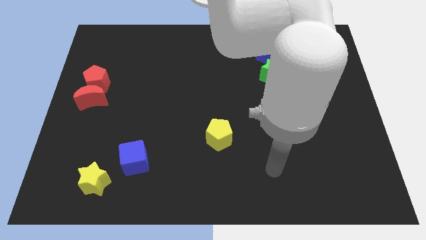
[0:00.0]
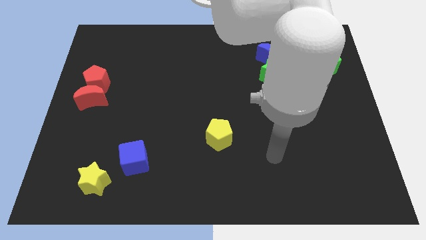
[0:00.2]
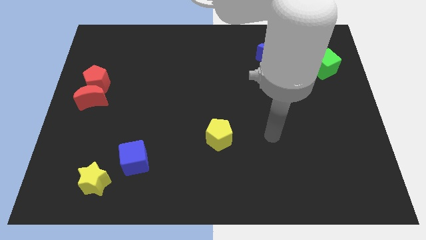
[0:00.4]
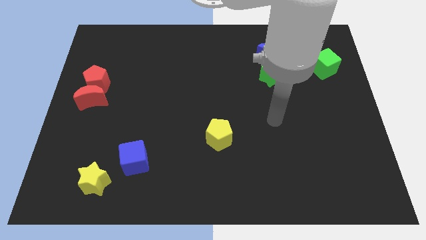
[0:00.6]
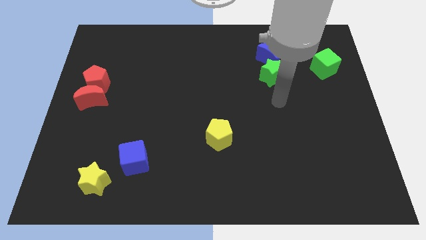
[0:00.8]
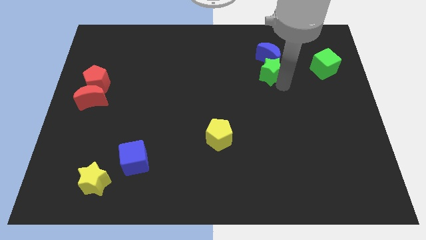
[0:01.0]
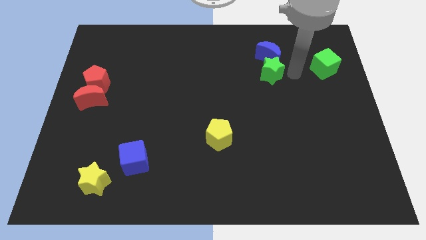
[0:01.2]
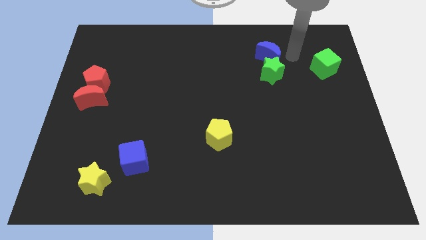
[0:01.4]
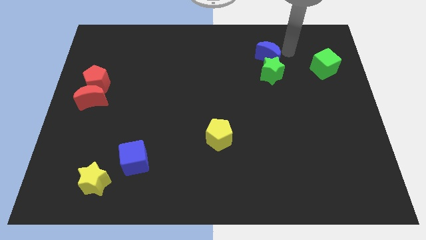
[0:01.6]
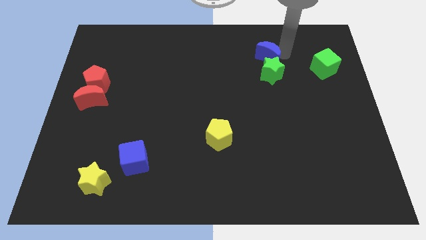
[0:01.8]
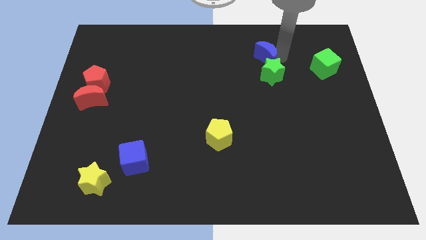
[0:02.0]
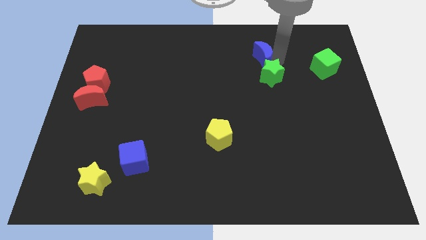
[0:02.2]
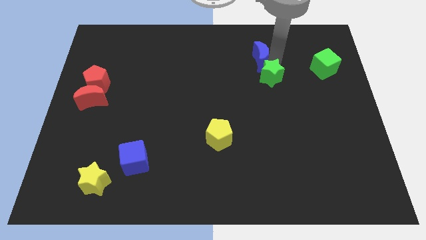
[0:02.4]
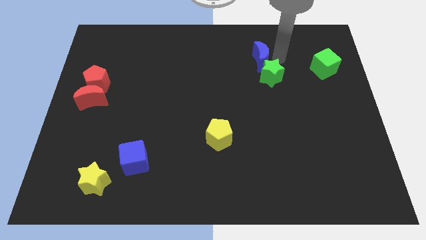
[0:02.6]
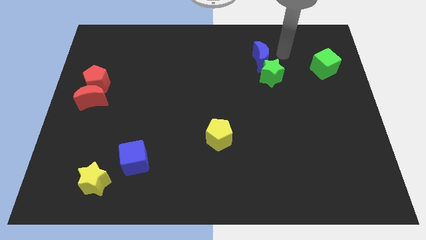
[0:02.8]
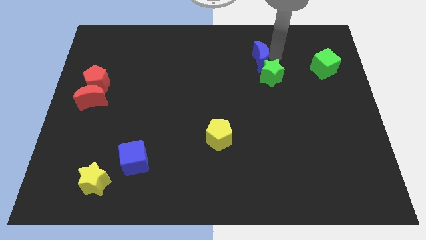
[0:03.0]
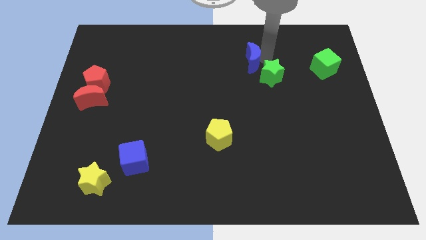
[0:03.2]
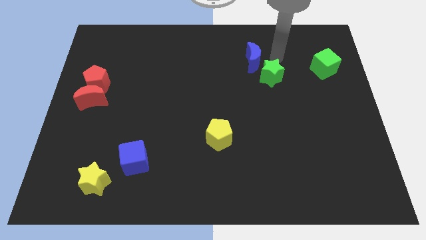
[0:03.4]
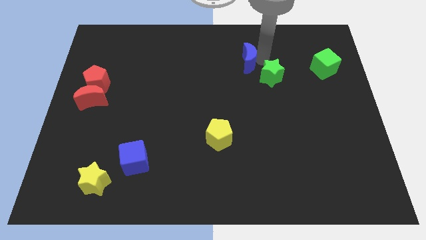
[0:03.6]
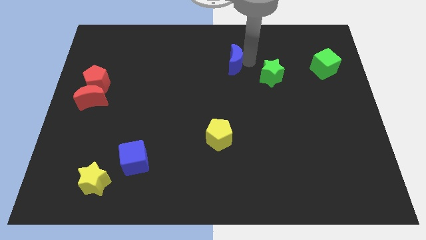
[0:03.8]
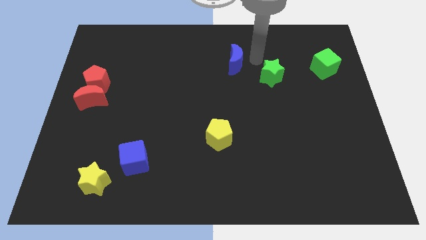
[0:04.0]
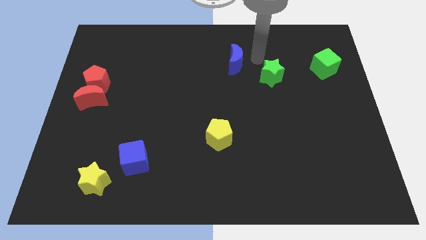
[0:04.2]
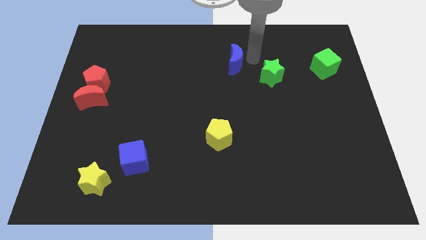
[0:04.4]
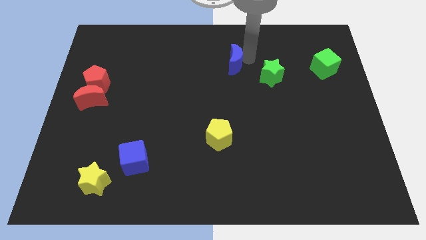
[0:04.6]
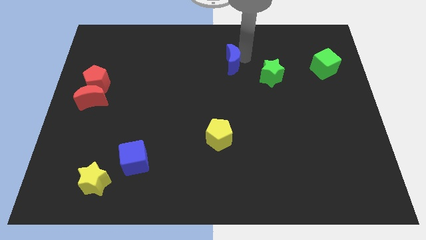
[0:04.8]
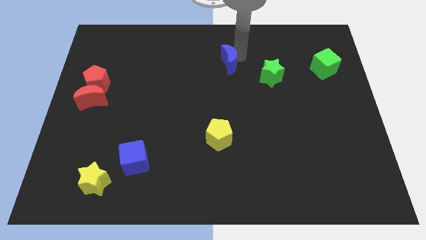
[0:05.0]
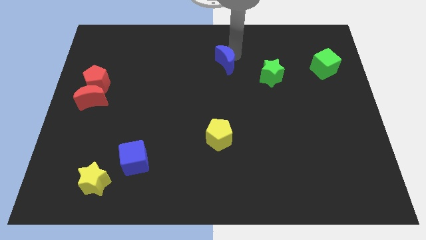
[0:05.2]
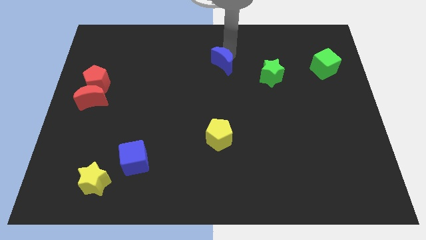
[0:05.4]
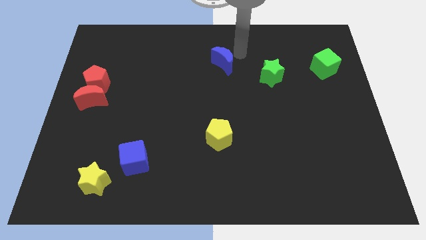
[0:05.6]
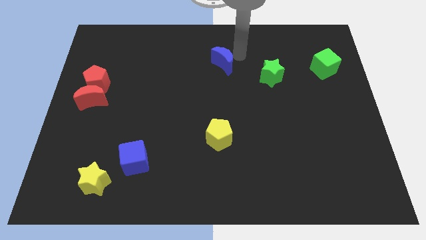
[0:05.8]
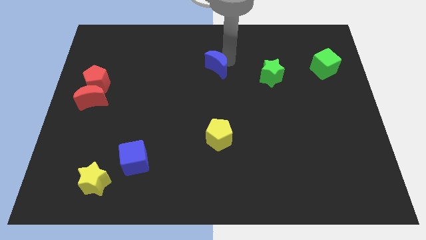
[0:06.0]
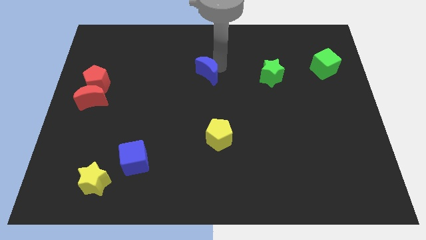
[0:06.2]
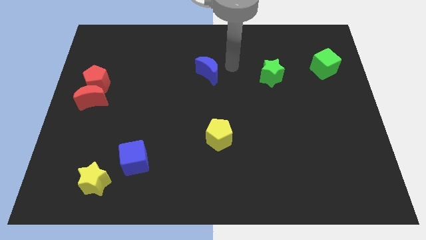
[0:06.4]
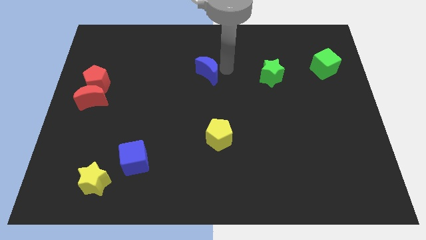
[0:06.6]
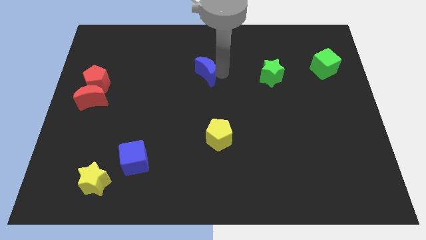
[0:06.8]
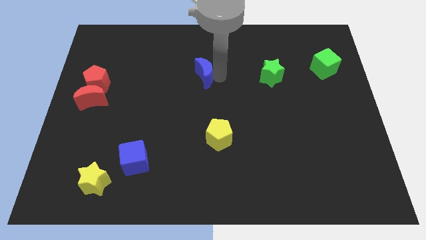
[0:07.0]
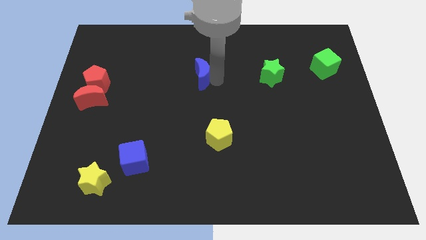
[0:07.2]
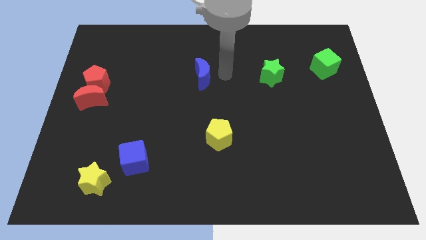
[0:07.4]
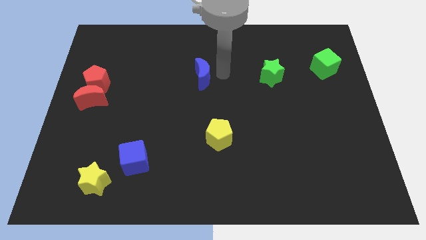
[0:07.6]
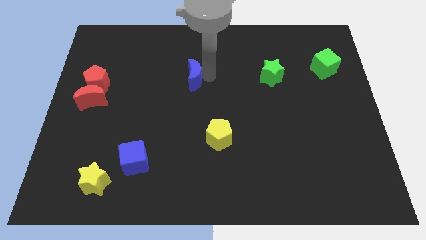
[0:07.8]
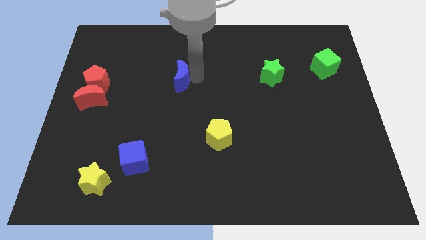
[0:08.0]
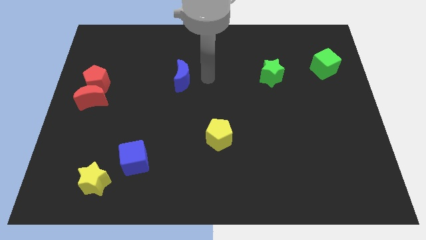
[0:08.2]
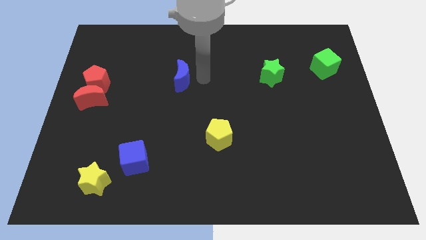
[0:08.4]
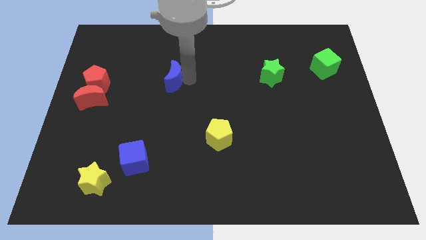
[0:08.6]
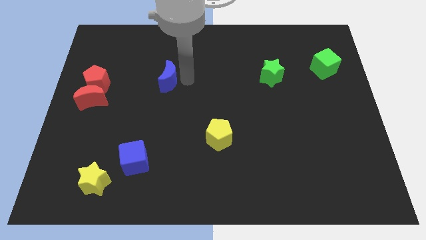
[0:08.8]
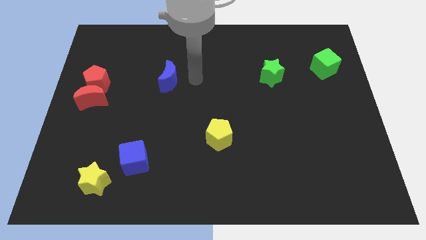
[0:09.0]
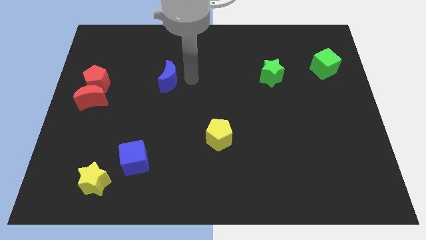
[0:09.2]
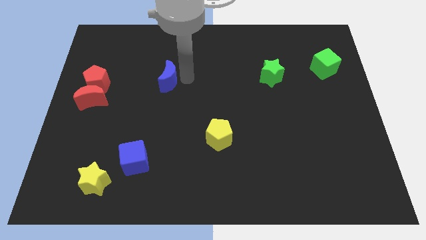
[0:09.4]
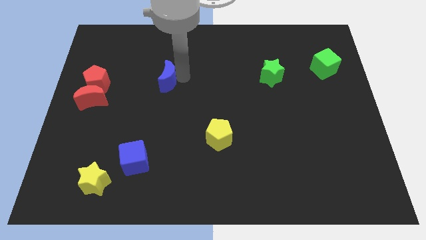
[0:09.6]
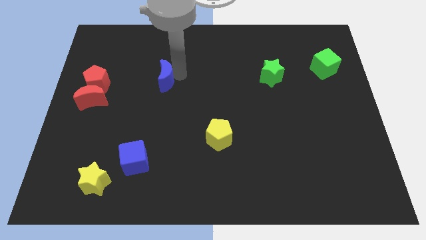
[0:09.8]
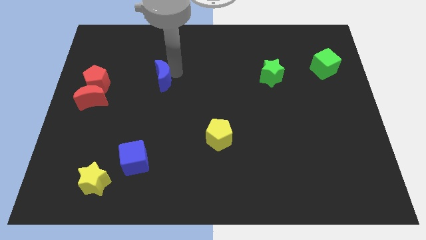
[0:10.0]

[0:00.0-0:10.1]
put the blue moon to the right side of the red pentagon

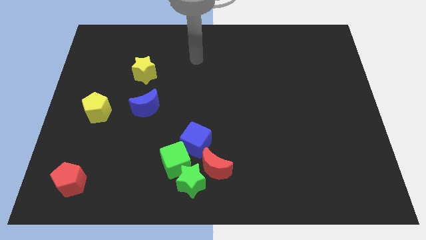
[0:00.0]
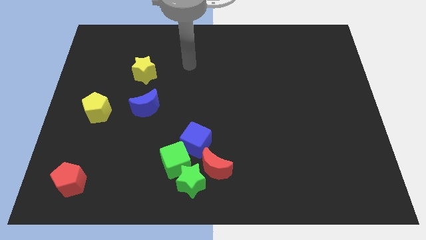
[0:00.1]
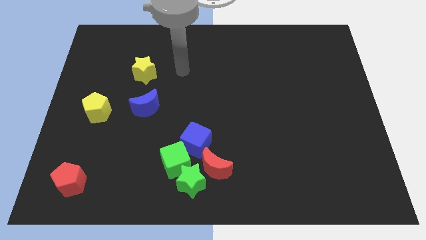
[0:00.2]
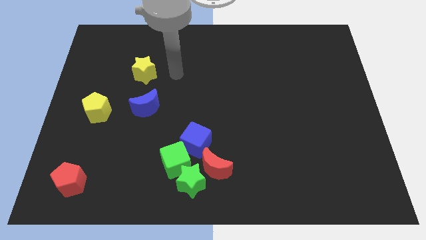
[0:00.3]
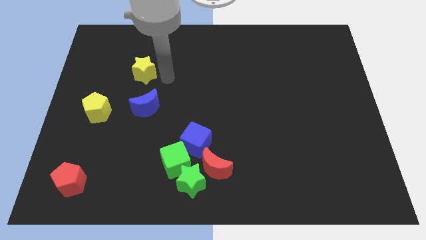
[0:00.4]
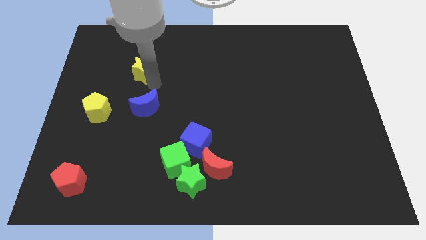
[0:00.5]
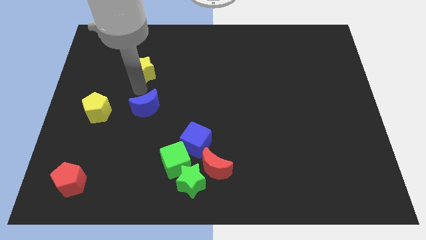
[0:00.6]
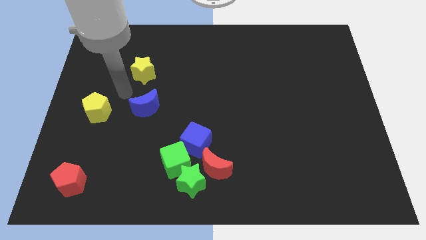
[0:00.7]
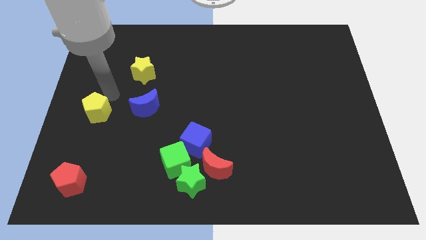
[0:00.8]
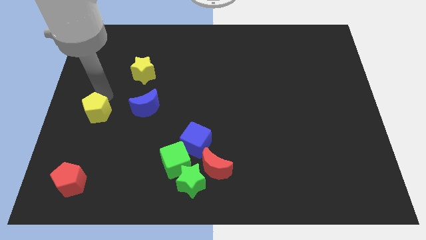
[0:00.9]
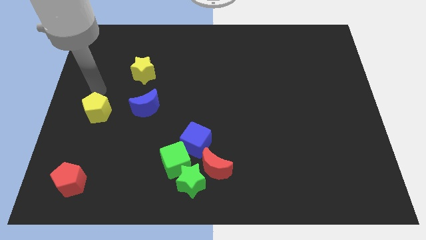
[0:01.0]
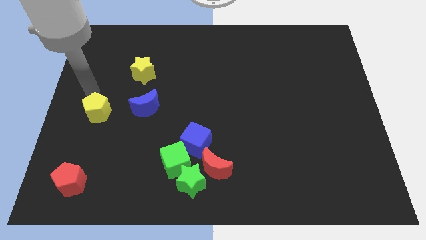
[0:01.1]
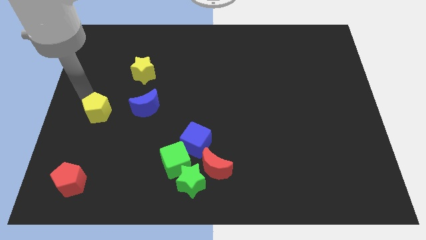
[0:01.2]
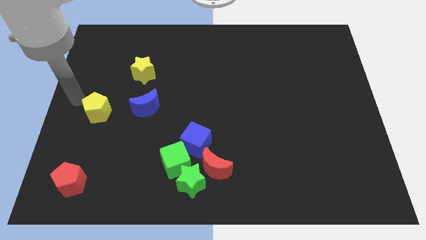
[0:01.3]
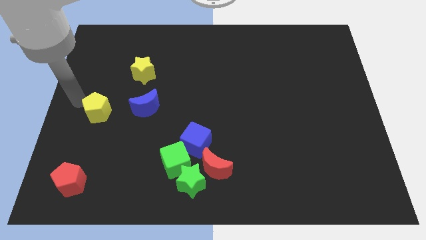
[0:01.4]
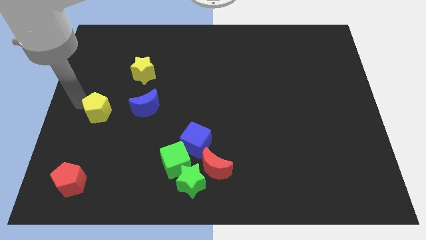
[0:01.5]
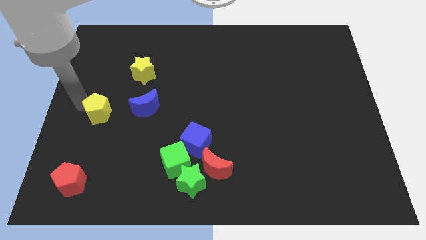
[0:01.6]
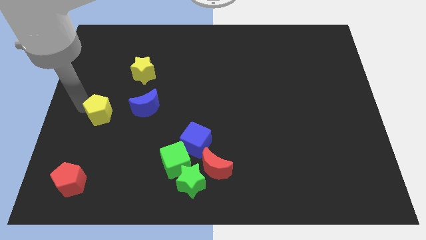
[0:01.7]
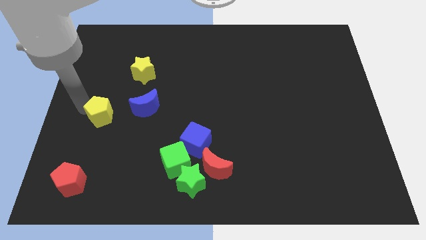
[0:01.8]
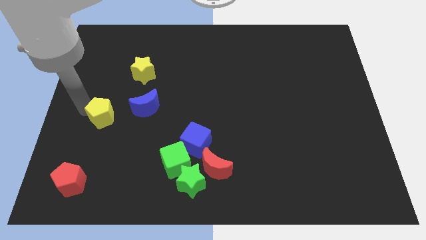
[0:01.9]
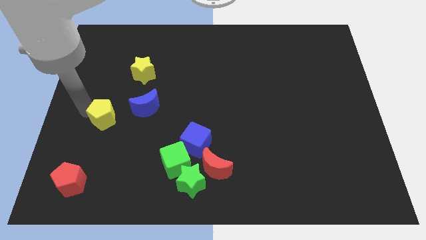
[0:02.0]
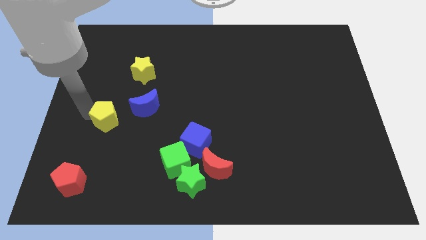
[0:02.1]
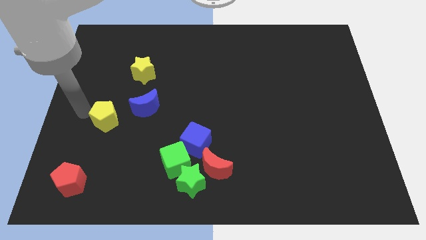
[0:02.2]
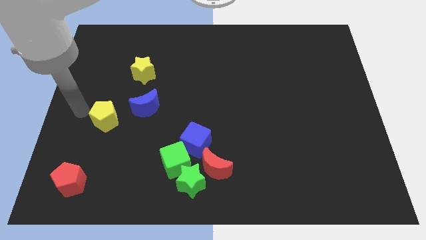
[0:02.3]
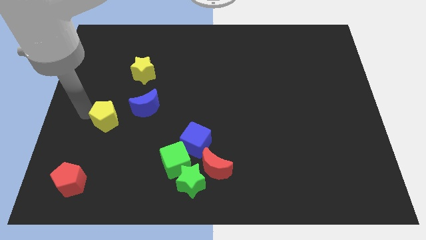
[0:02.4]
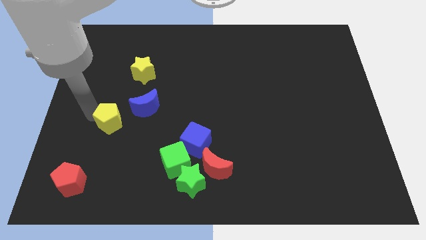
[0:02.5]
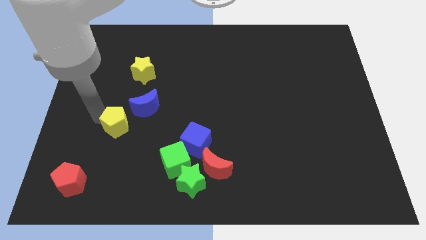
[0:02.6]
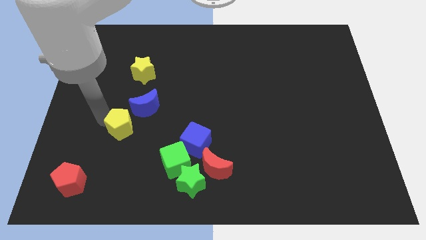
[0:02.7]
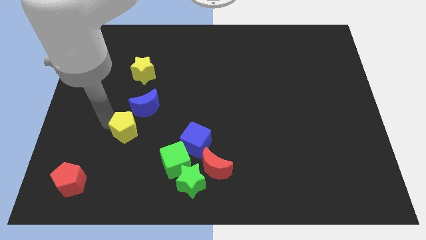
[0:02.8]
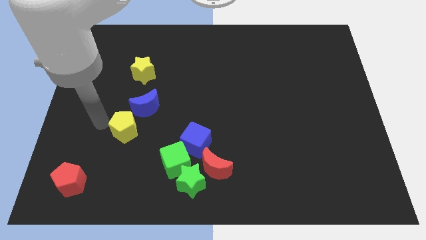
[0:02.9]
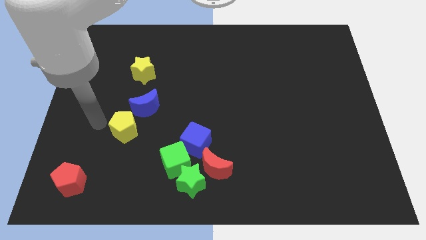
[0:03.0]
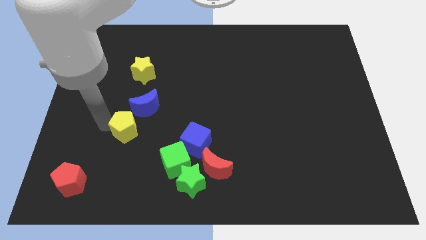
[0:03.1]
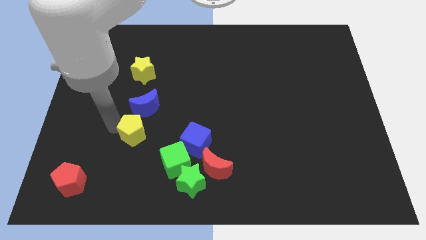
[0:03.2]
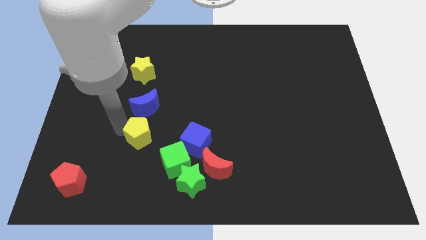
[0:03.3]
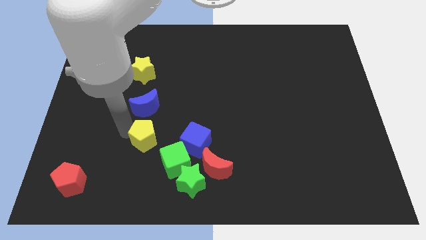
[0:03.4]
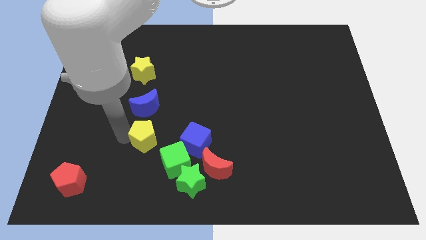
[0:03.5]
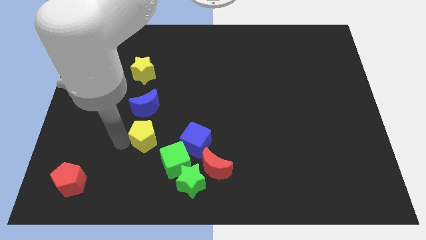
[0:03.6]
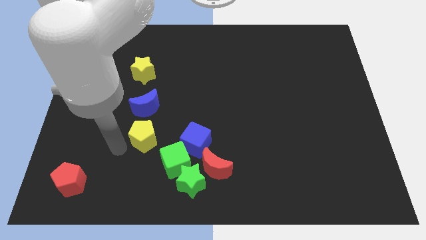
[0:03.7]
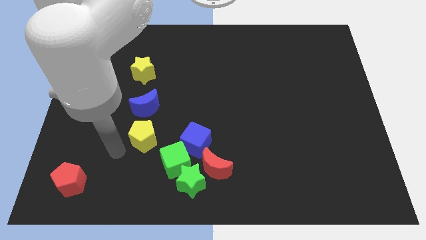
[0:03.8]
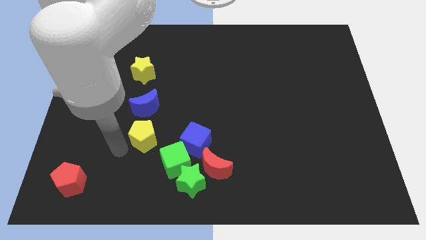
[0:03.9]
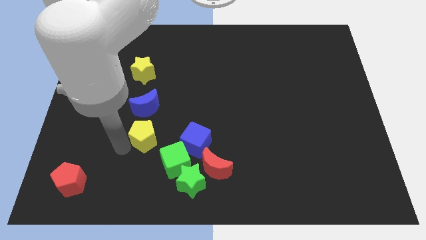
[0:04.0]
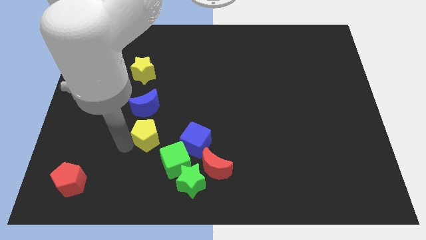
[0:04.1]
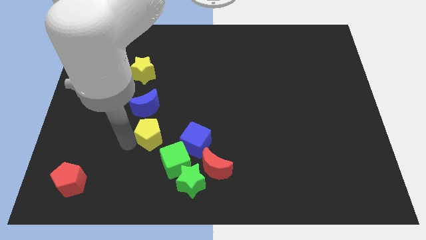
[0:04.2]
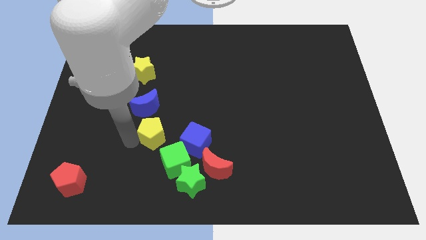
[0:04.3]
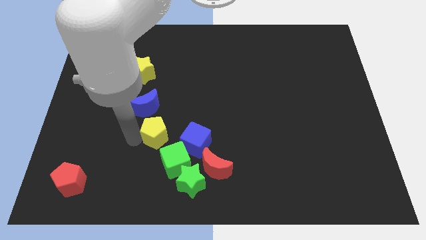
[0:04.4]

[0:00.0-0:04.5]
slide the yellow pentagon to the top left of the blue cube
